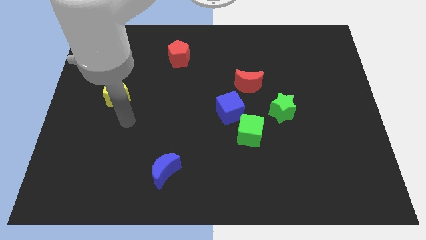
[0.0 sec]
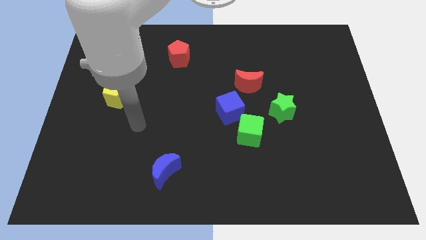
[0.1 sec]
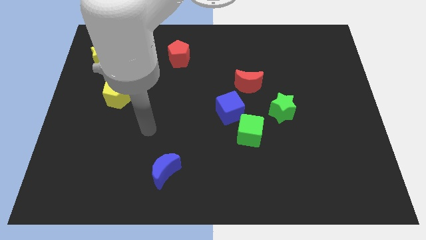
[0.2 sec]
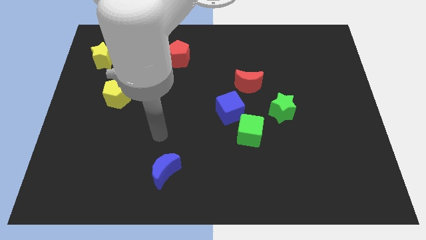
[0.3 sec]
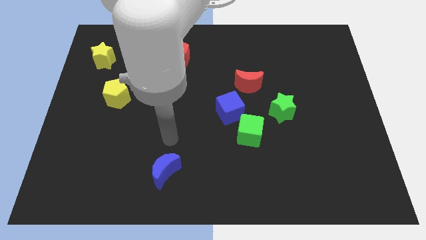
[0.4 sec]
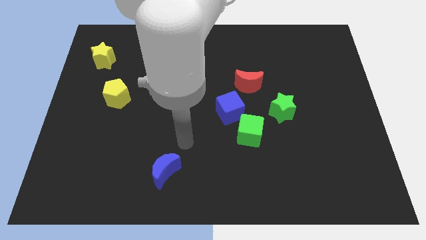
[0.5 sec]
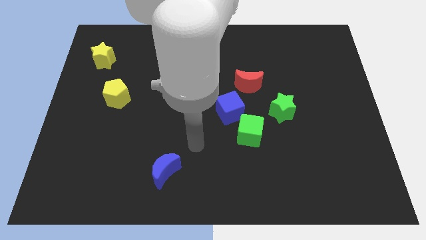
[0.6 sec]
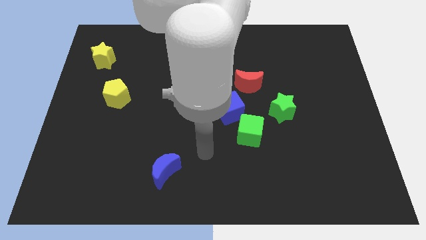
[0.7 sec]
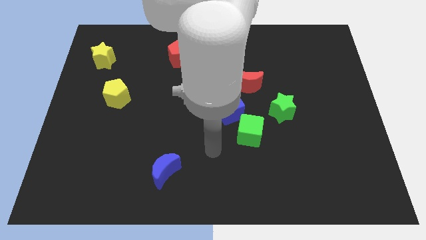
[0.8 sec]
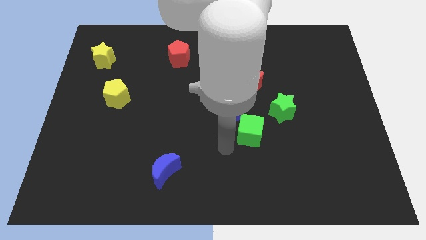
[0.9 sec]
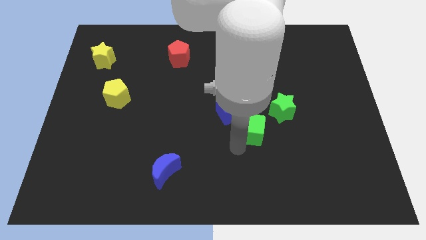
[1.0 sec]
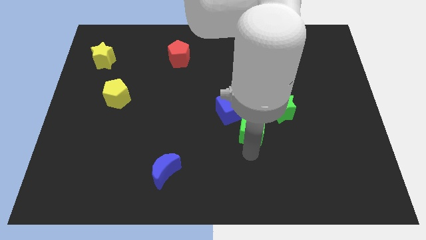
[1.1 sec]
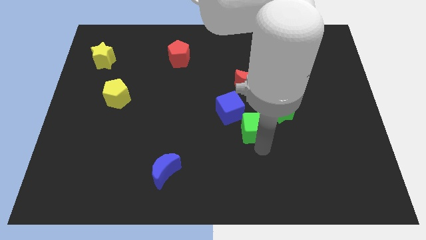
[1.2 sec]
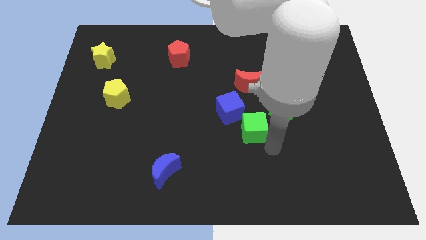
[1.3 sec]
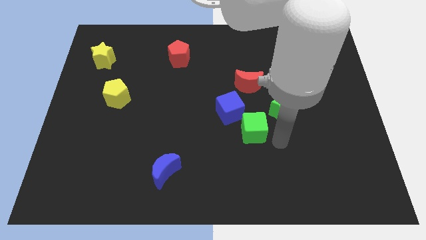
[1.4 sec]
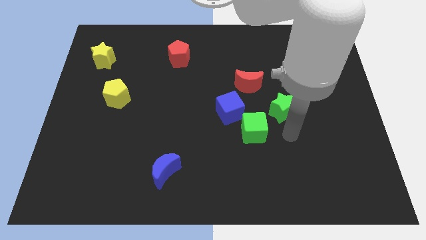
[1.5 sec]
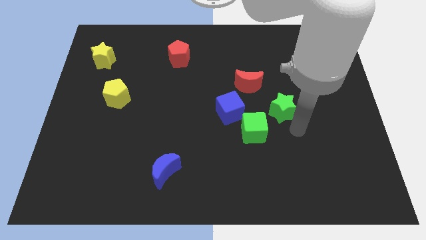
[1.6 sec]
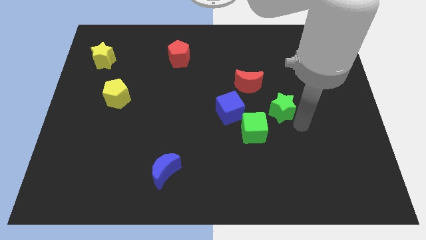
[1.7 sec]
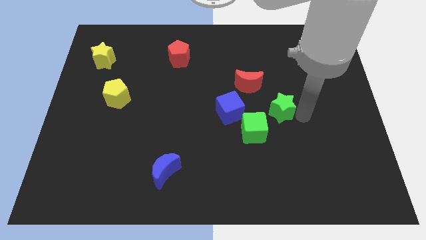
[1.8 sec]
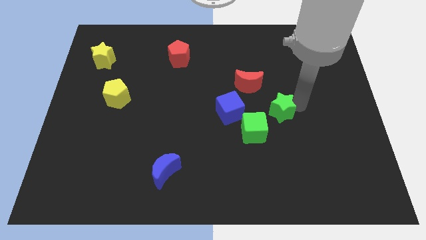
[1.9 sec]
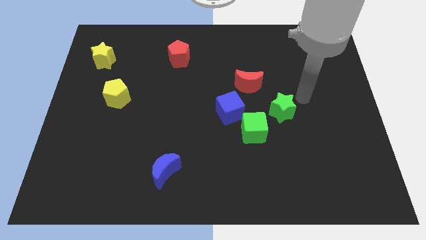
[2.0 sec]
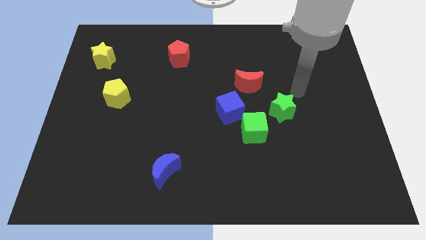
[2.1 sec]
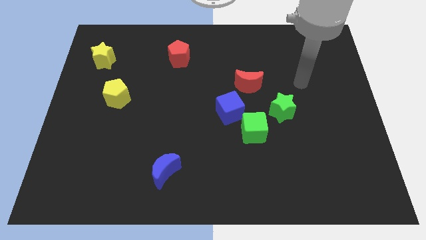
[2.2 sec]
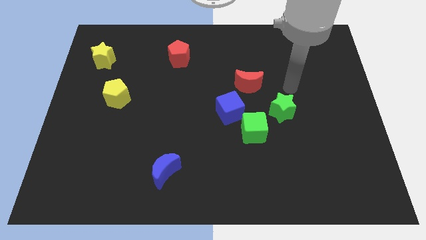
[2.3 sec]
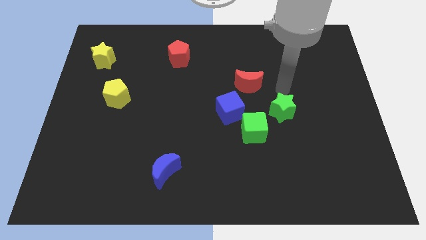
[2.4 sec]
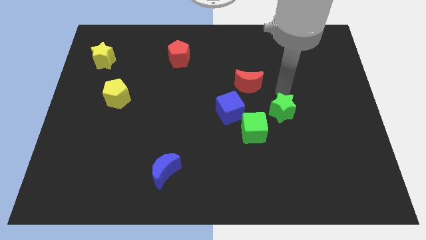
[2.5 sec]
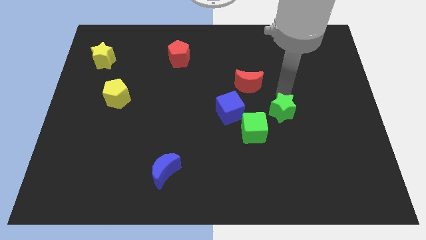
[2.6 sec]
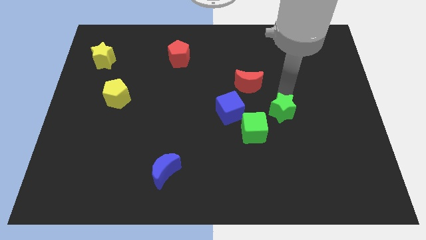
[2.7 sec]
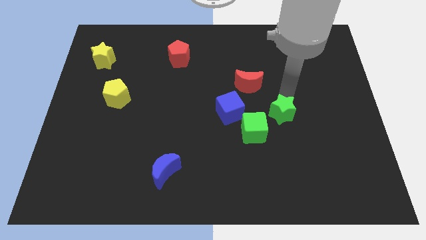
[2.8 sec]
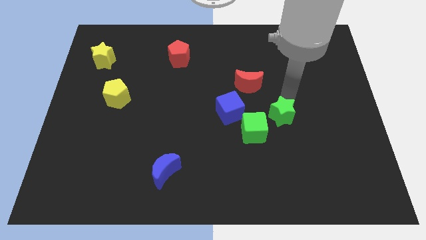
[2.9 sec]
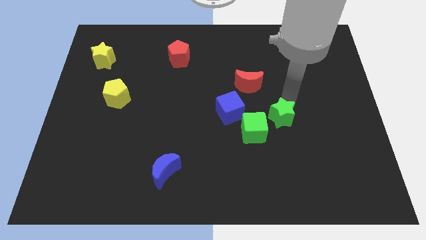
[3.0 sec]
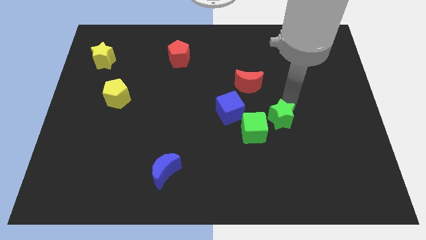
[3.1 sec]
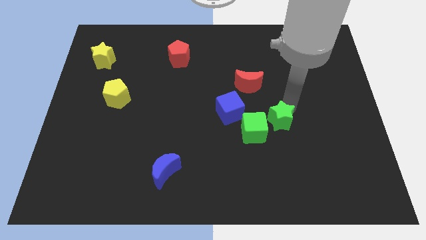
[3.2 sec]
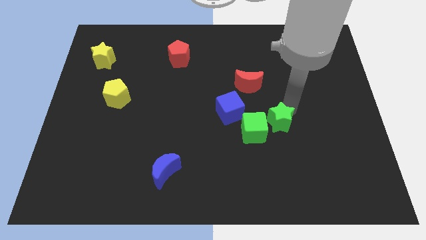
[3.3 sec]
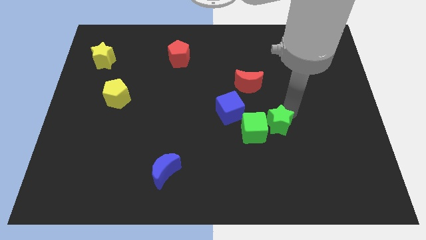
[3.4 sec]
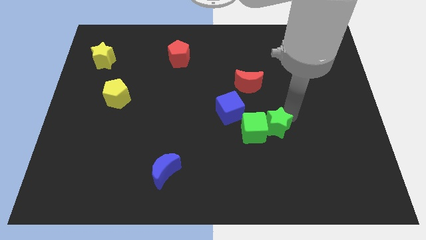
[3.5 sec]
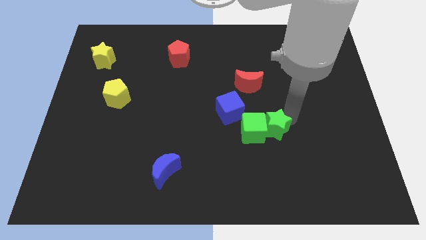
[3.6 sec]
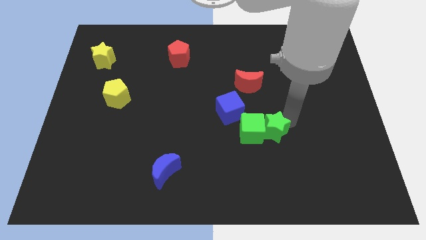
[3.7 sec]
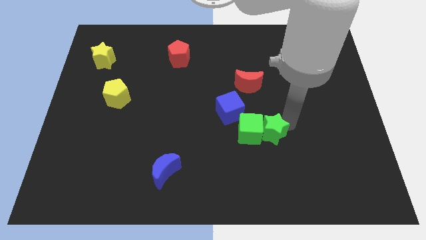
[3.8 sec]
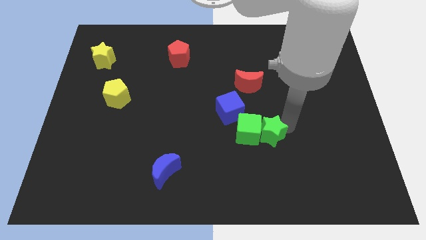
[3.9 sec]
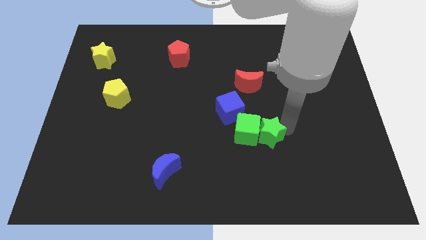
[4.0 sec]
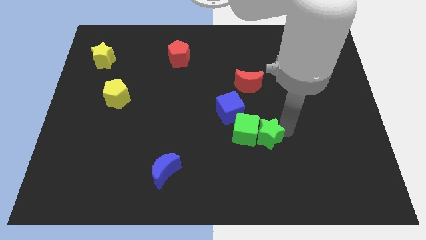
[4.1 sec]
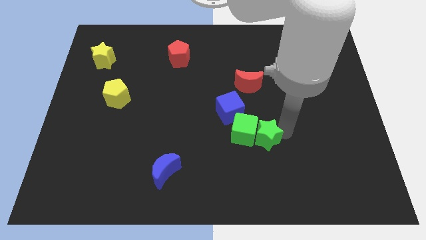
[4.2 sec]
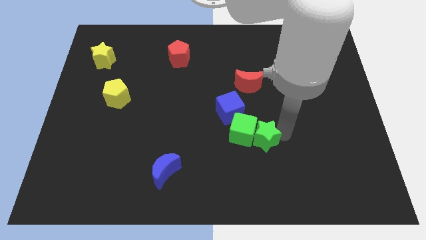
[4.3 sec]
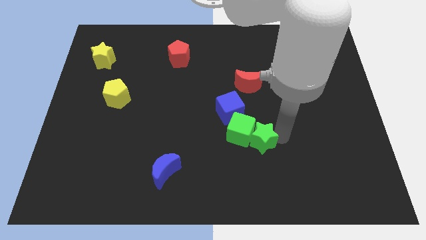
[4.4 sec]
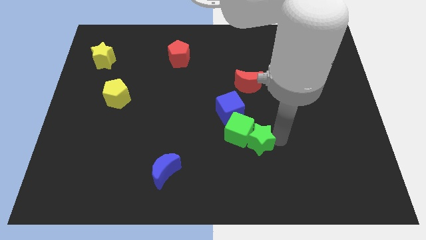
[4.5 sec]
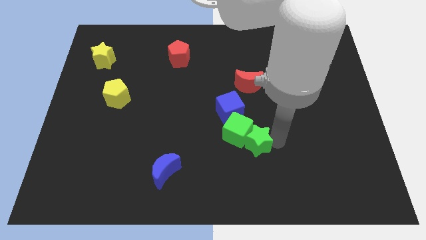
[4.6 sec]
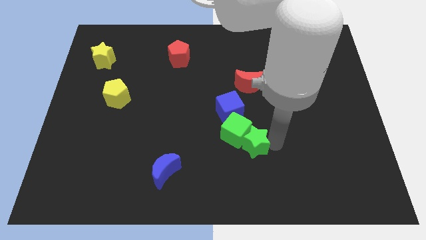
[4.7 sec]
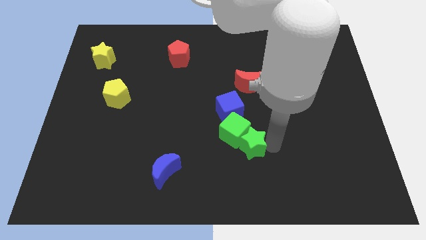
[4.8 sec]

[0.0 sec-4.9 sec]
put the green star to the bottom side of the blue cube

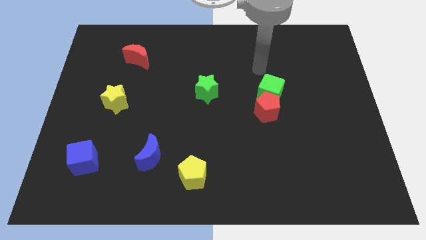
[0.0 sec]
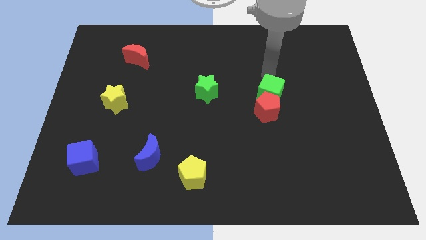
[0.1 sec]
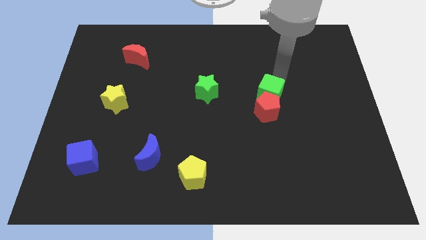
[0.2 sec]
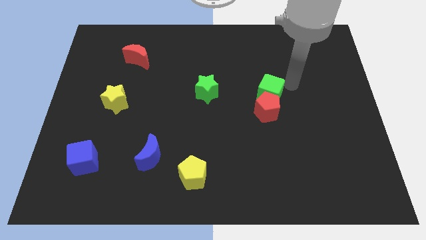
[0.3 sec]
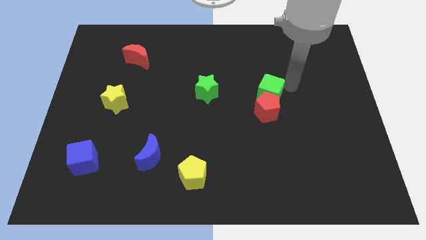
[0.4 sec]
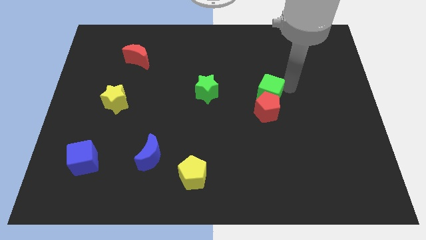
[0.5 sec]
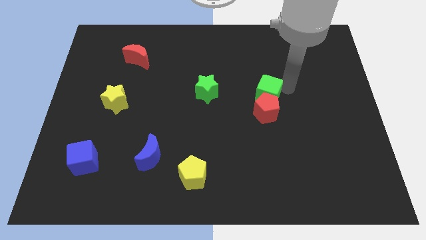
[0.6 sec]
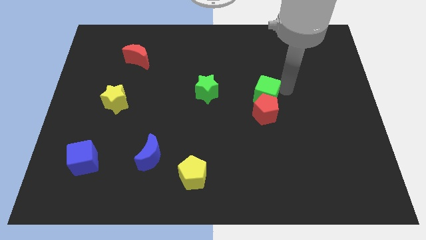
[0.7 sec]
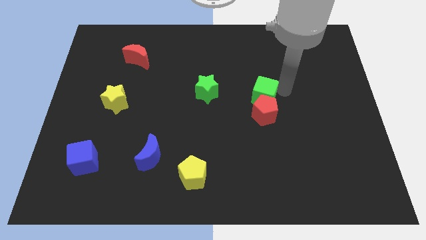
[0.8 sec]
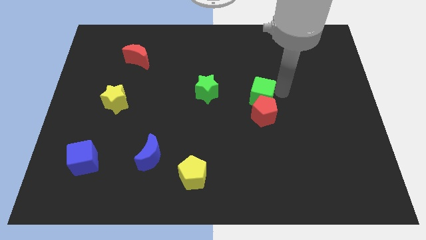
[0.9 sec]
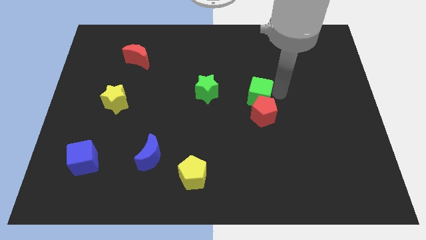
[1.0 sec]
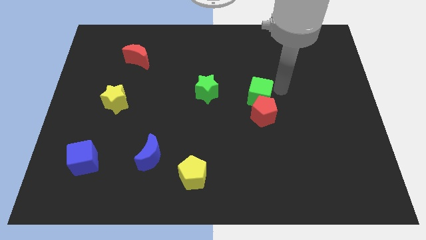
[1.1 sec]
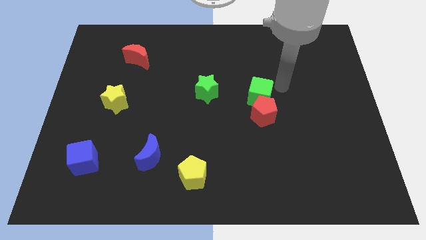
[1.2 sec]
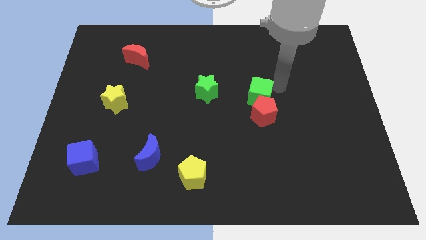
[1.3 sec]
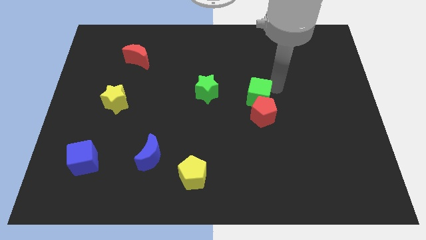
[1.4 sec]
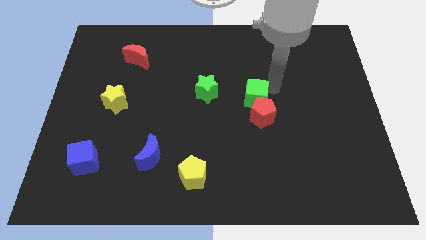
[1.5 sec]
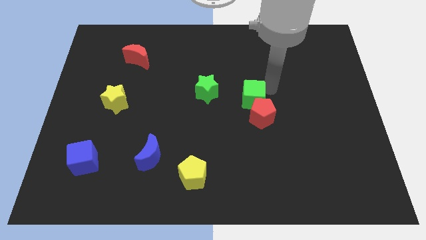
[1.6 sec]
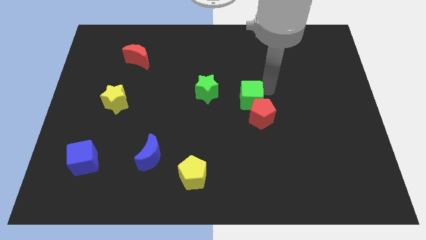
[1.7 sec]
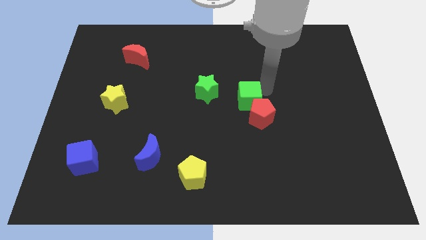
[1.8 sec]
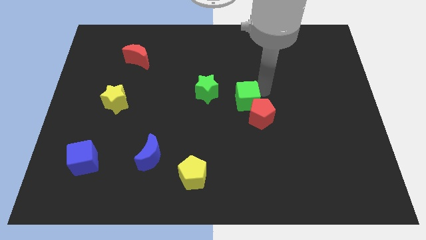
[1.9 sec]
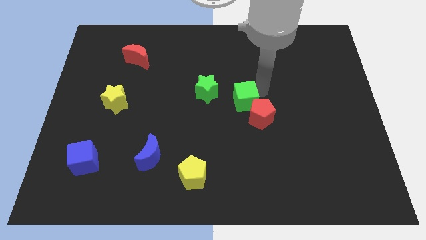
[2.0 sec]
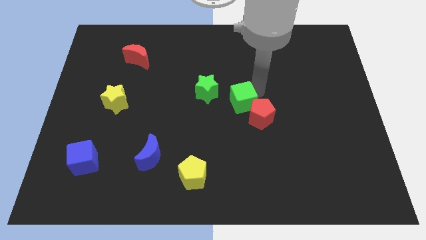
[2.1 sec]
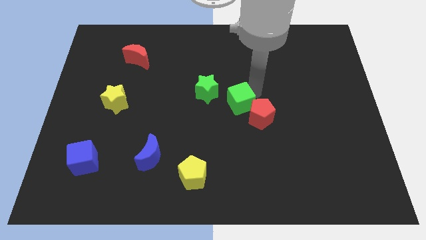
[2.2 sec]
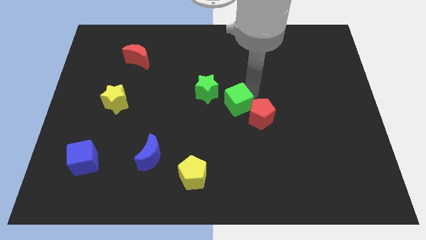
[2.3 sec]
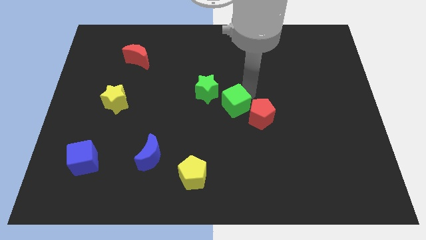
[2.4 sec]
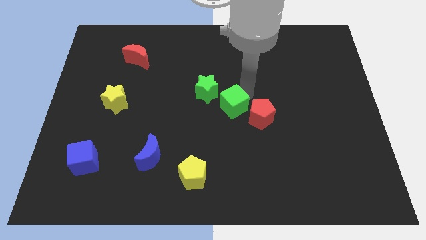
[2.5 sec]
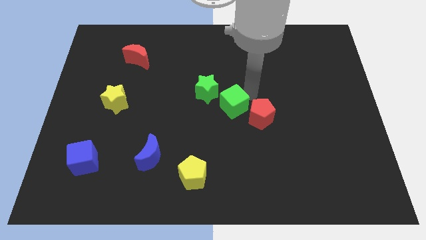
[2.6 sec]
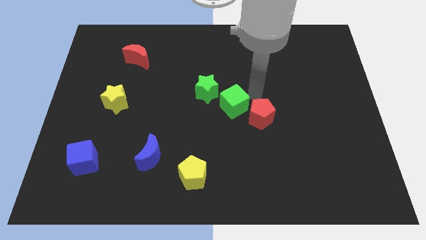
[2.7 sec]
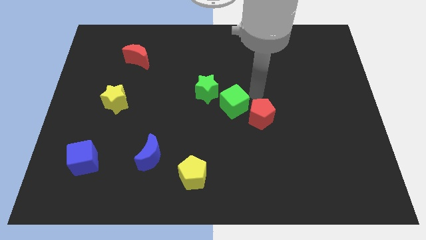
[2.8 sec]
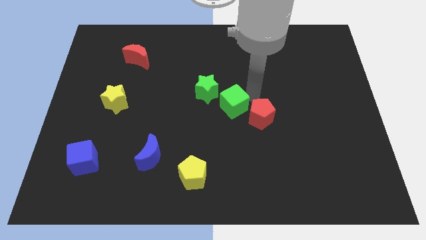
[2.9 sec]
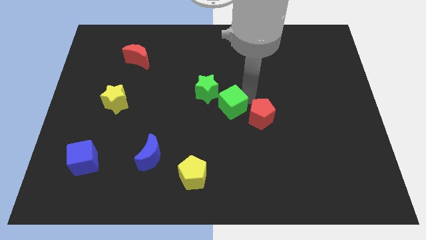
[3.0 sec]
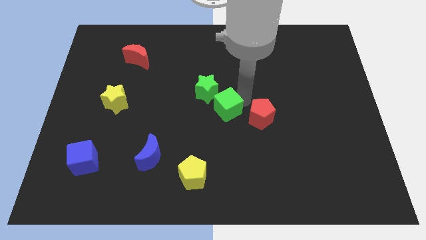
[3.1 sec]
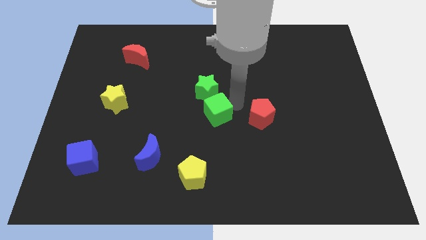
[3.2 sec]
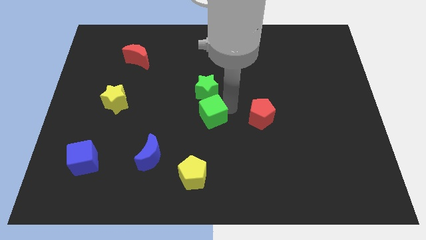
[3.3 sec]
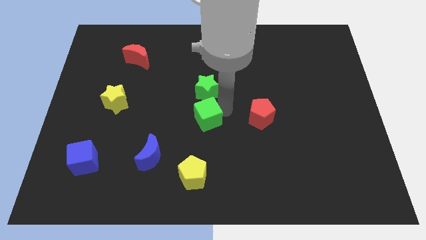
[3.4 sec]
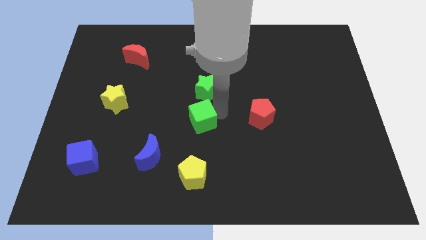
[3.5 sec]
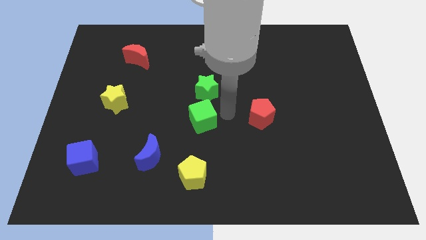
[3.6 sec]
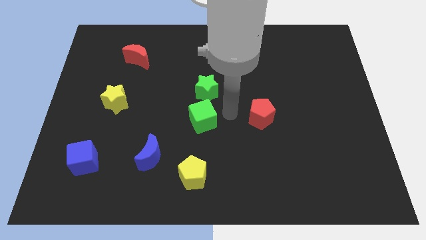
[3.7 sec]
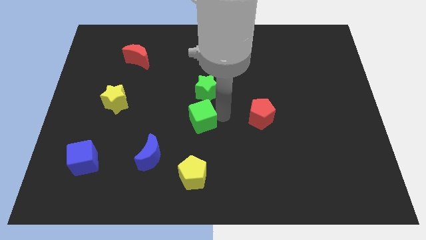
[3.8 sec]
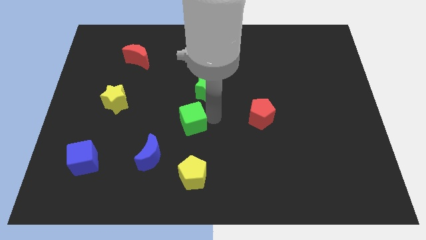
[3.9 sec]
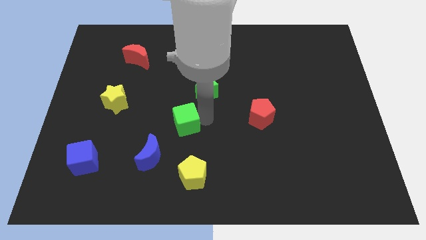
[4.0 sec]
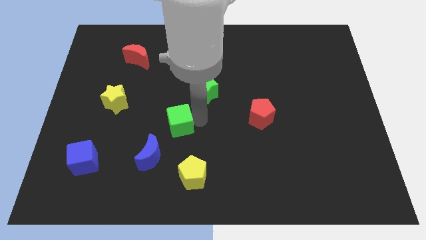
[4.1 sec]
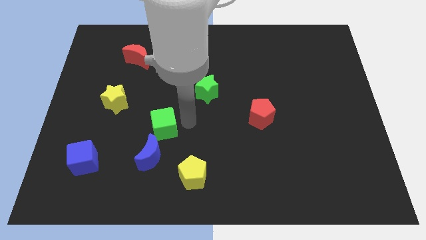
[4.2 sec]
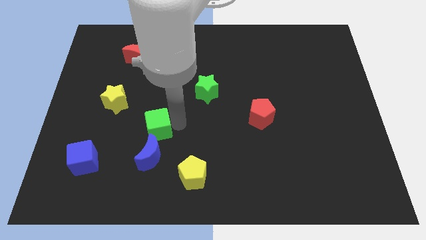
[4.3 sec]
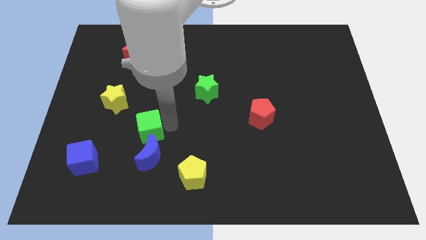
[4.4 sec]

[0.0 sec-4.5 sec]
push the green cube diagonally up and to the left of the blue moon
